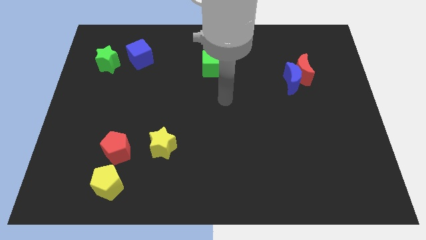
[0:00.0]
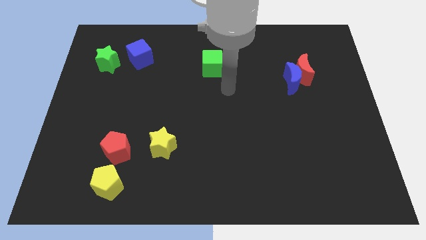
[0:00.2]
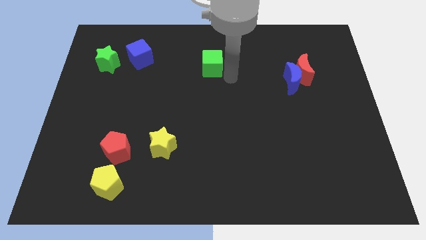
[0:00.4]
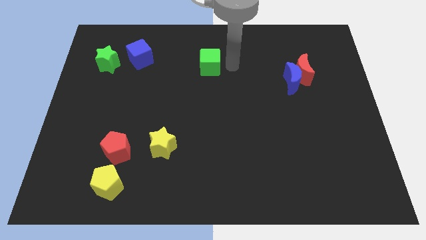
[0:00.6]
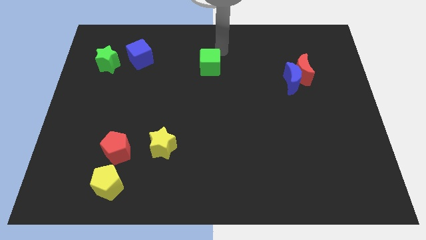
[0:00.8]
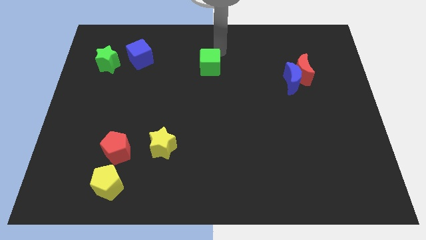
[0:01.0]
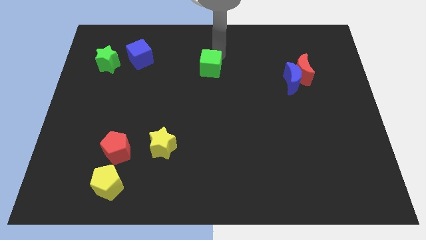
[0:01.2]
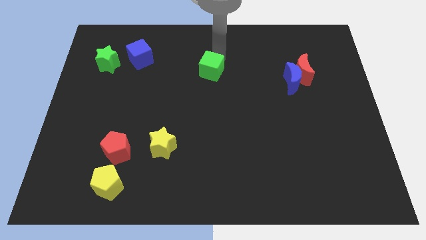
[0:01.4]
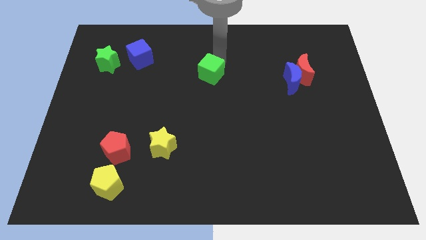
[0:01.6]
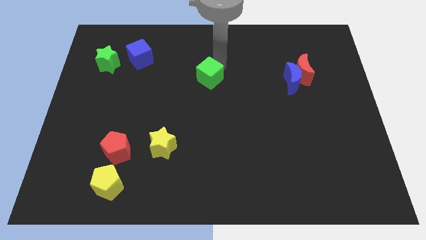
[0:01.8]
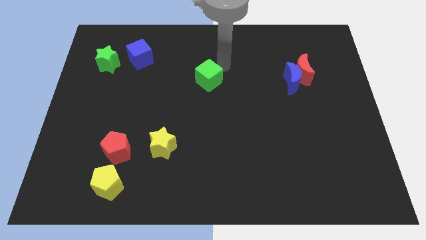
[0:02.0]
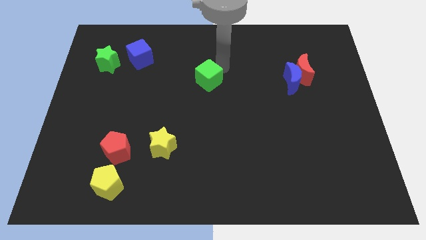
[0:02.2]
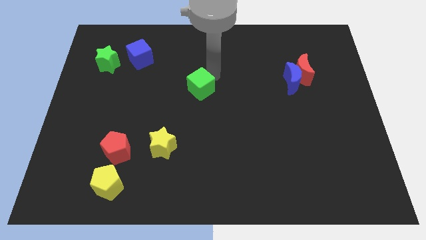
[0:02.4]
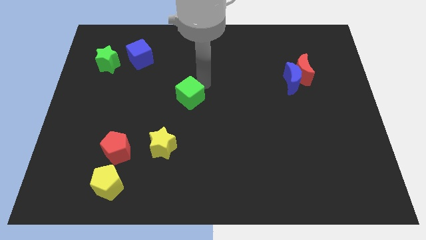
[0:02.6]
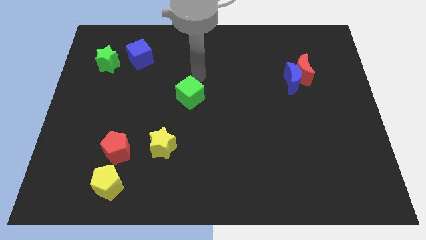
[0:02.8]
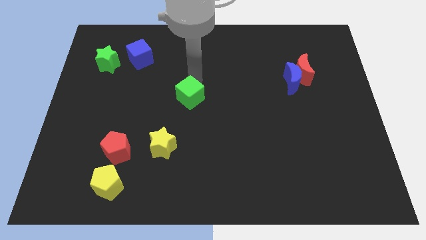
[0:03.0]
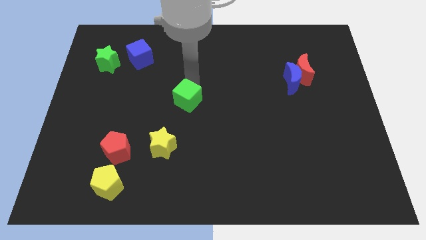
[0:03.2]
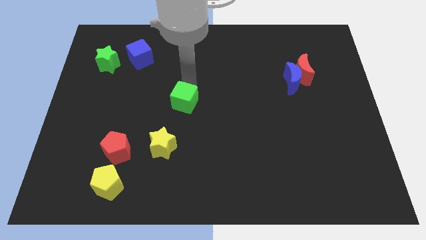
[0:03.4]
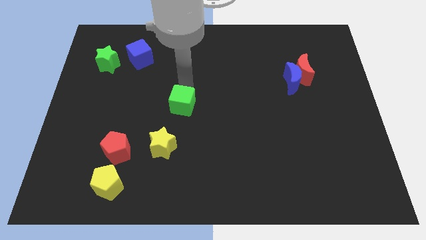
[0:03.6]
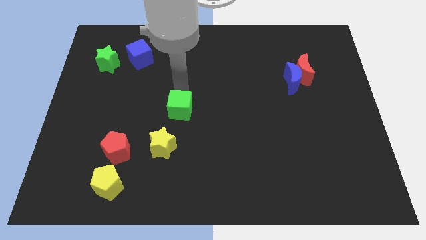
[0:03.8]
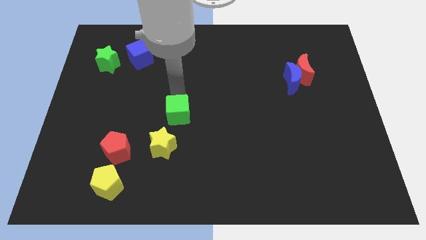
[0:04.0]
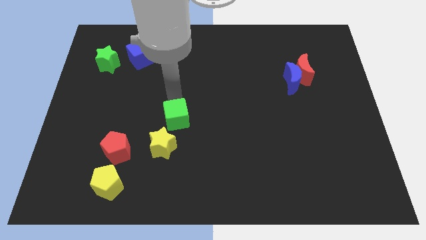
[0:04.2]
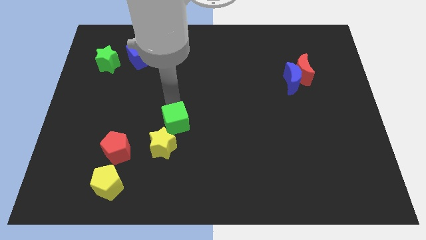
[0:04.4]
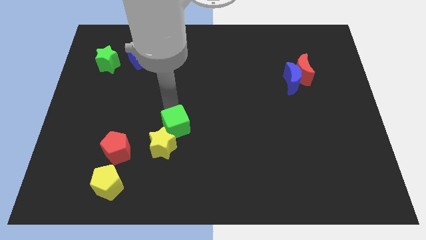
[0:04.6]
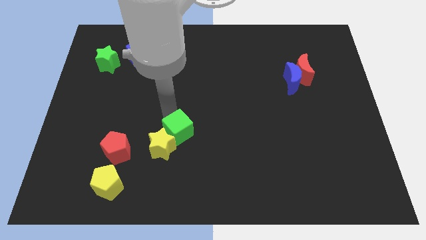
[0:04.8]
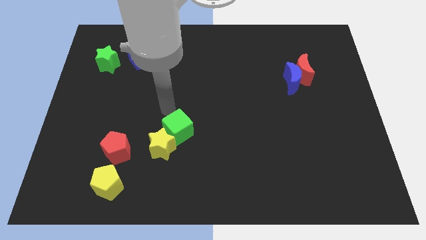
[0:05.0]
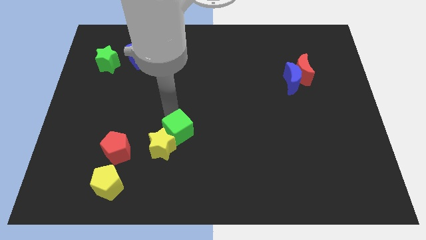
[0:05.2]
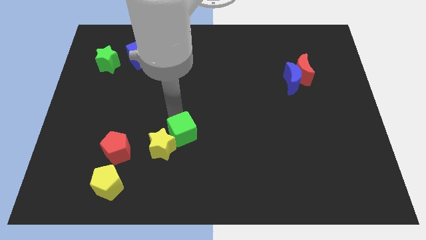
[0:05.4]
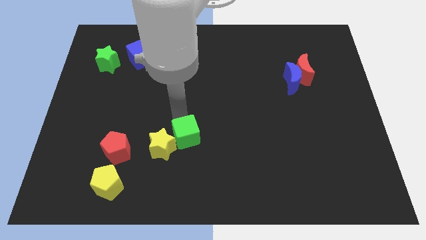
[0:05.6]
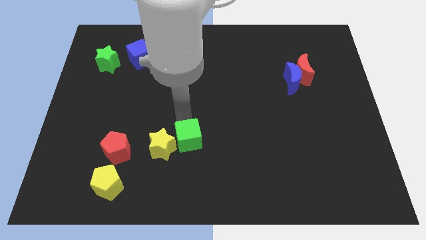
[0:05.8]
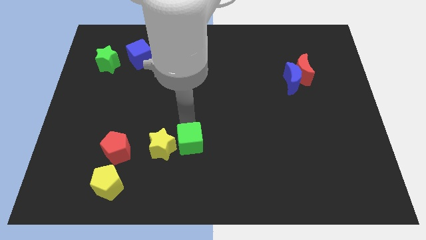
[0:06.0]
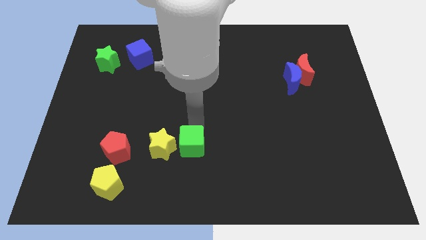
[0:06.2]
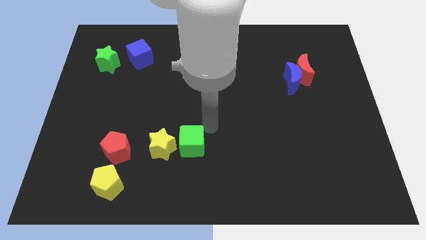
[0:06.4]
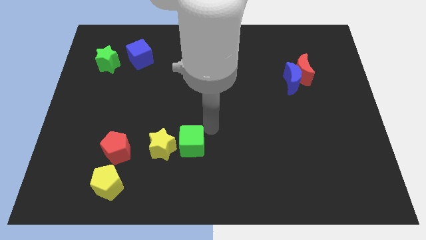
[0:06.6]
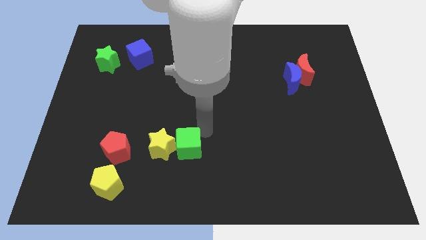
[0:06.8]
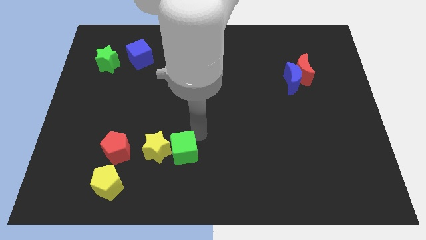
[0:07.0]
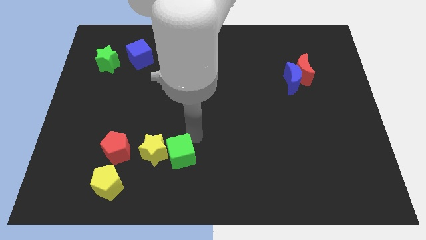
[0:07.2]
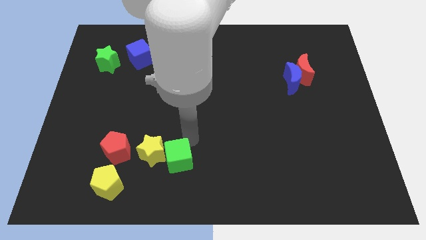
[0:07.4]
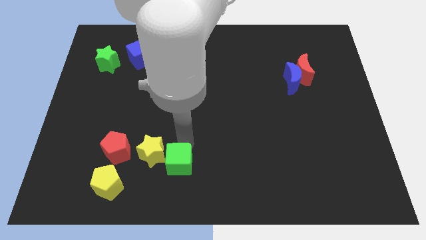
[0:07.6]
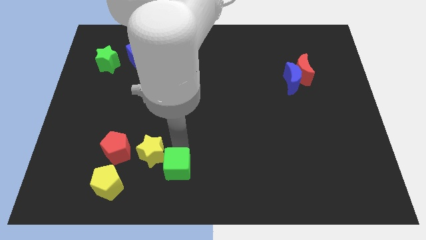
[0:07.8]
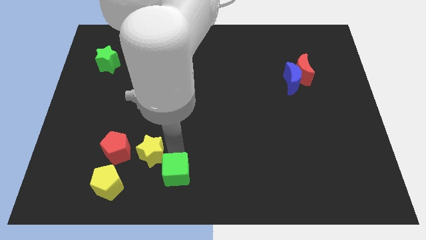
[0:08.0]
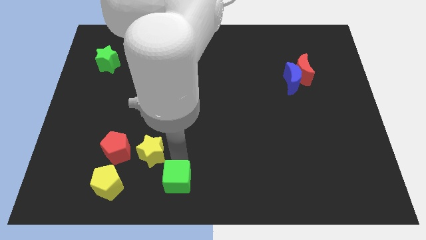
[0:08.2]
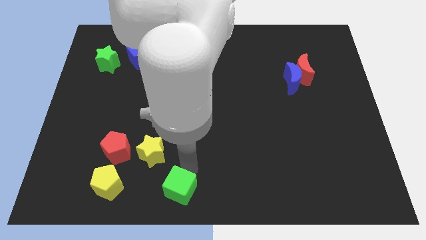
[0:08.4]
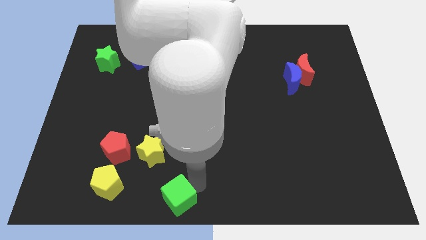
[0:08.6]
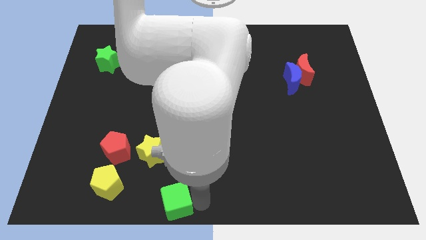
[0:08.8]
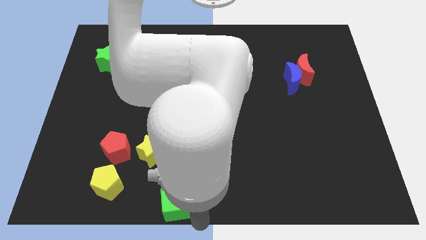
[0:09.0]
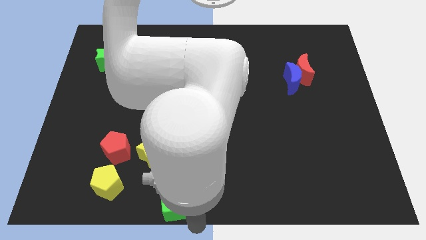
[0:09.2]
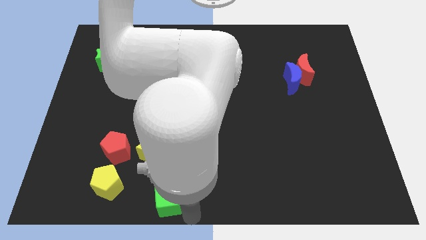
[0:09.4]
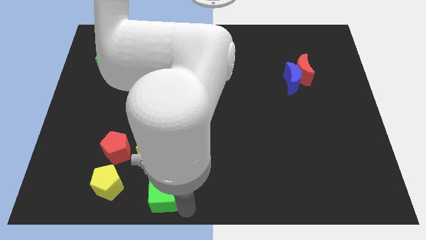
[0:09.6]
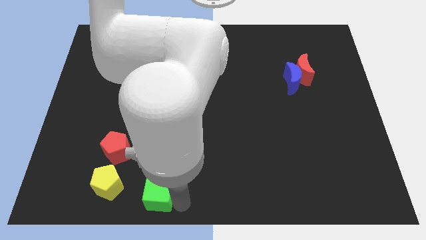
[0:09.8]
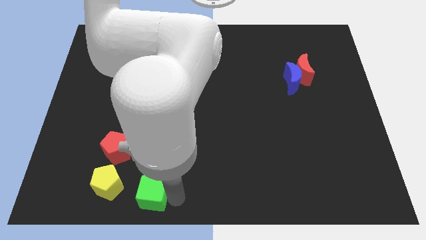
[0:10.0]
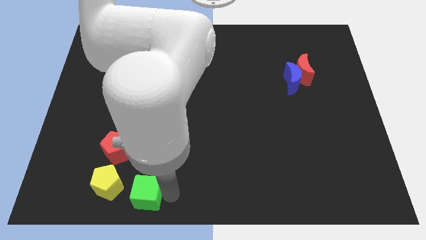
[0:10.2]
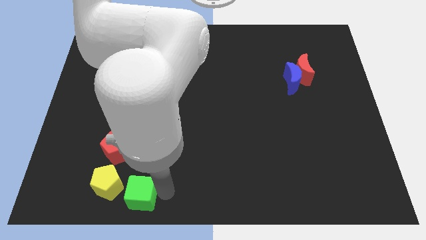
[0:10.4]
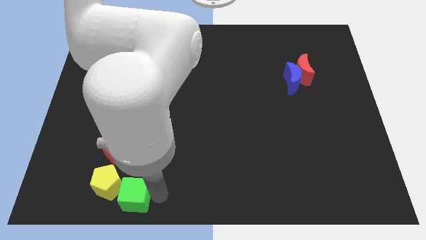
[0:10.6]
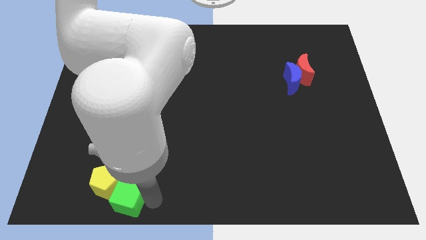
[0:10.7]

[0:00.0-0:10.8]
push the green cube close to the yellow pentagon

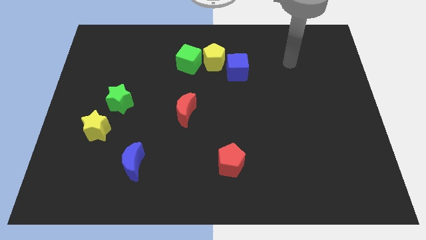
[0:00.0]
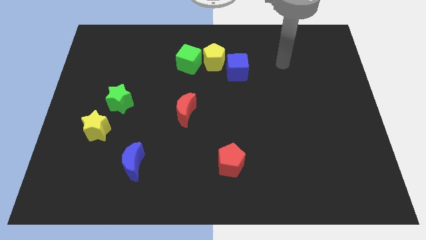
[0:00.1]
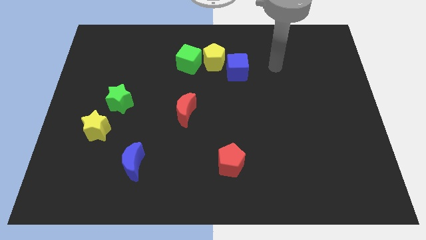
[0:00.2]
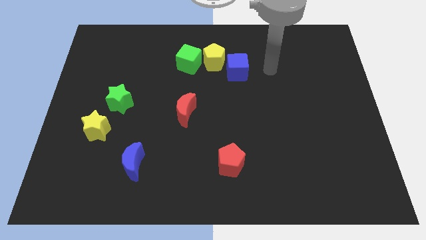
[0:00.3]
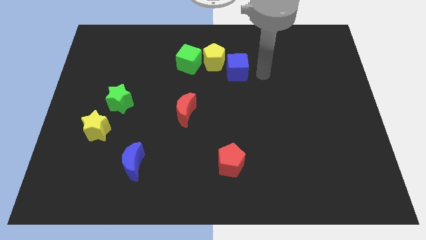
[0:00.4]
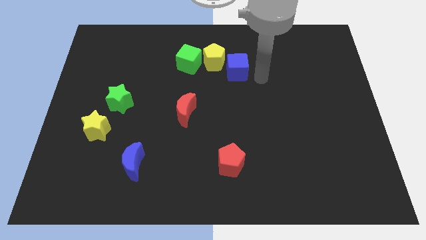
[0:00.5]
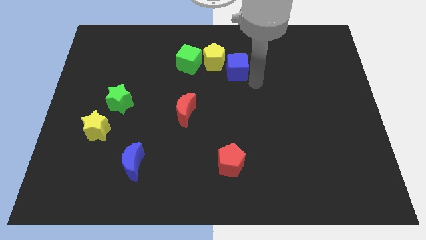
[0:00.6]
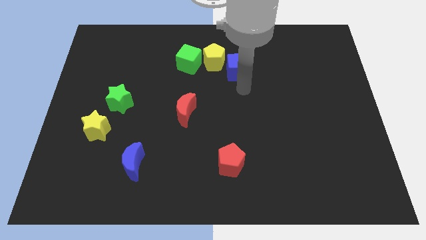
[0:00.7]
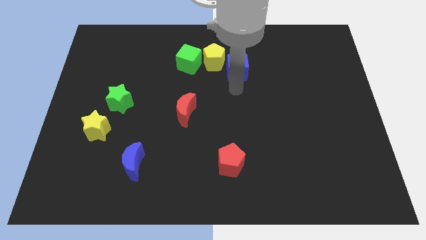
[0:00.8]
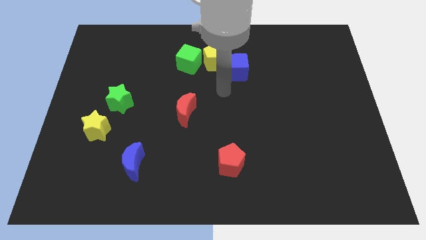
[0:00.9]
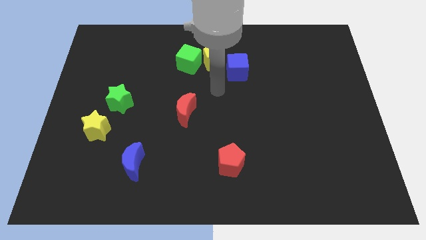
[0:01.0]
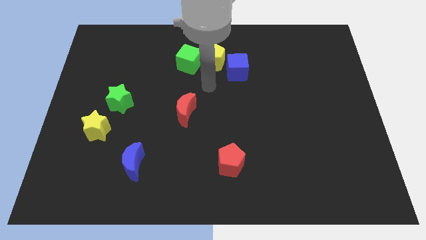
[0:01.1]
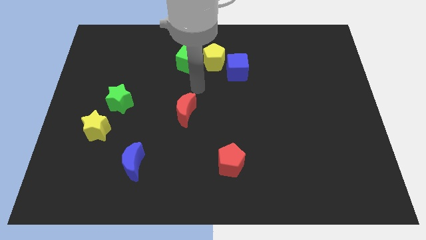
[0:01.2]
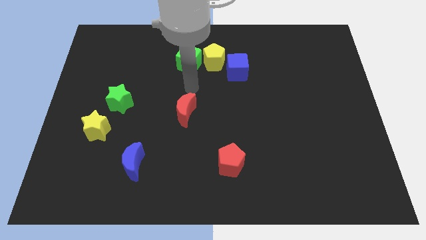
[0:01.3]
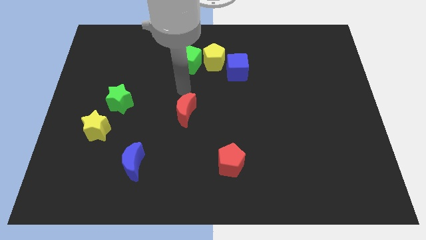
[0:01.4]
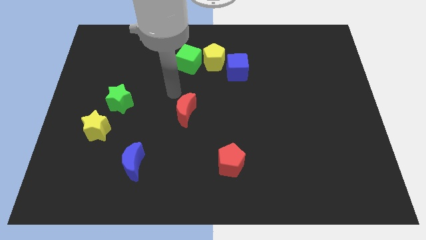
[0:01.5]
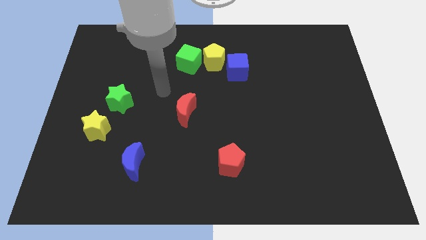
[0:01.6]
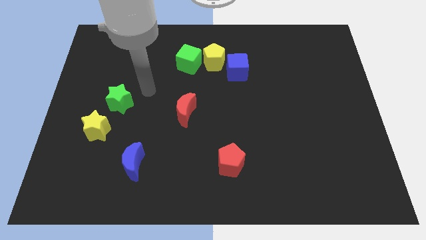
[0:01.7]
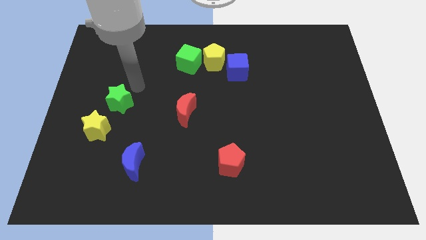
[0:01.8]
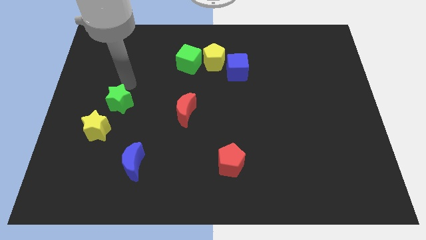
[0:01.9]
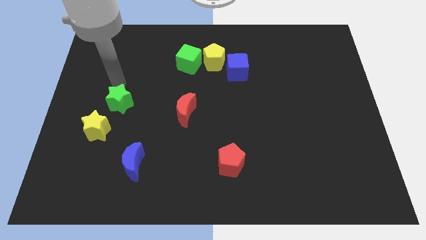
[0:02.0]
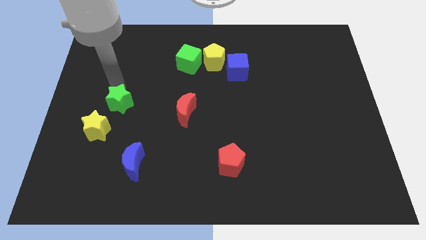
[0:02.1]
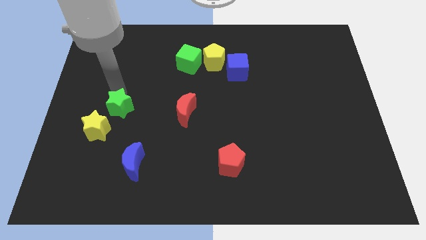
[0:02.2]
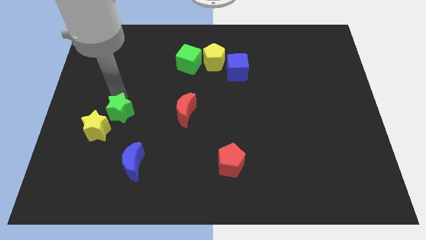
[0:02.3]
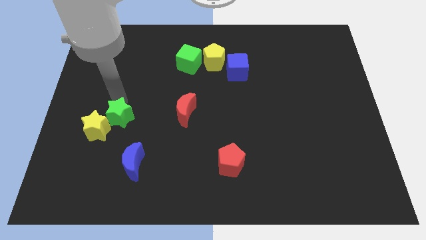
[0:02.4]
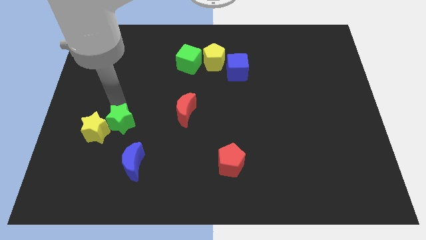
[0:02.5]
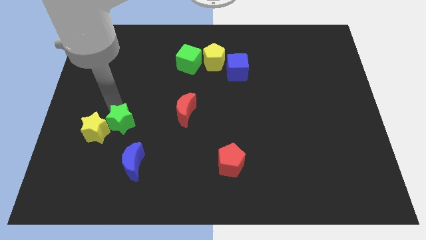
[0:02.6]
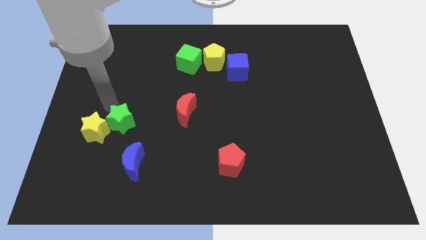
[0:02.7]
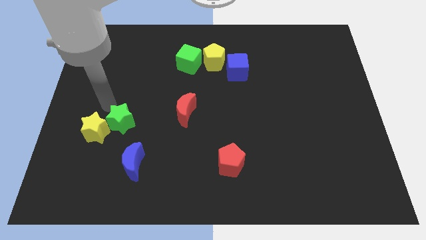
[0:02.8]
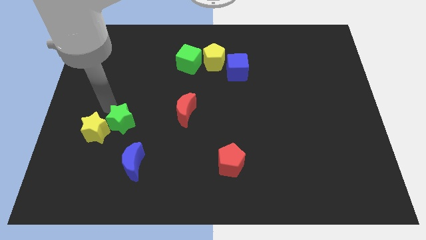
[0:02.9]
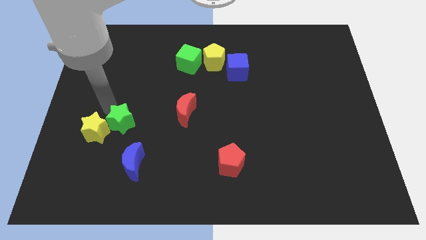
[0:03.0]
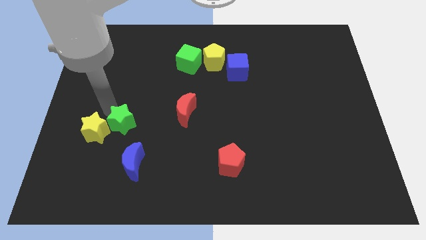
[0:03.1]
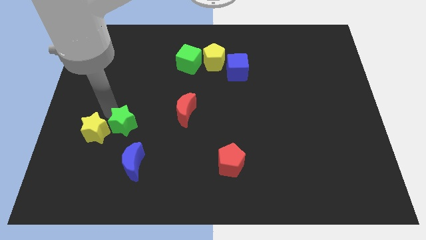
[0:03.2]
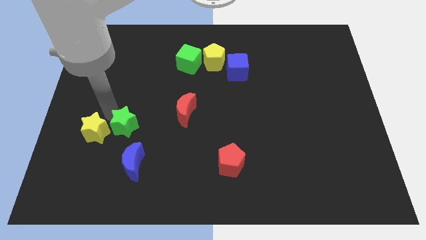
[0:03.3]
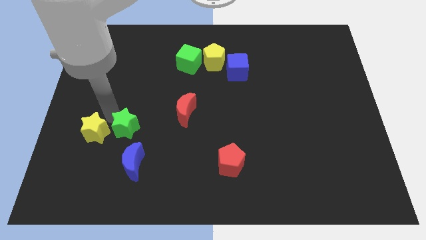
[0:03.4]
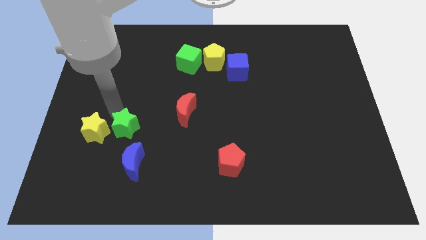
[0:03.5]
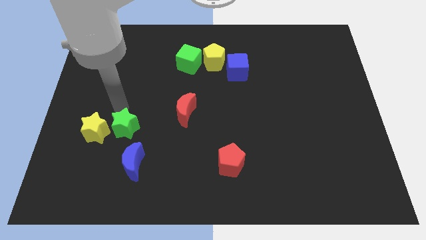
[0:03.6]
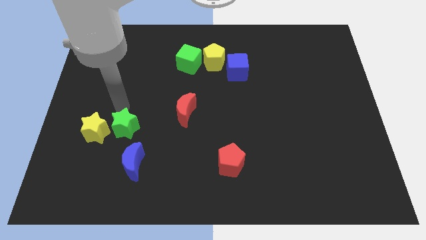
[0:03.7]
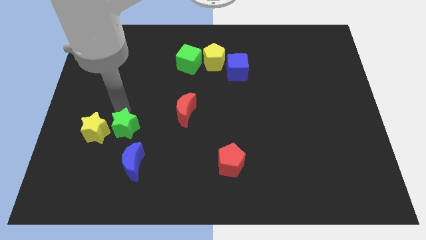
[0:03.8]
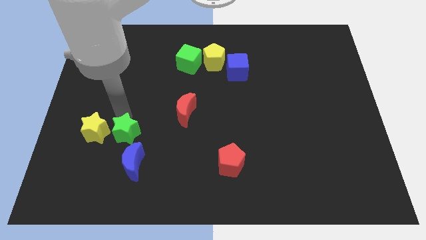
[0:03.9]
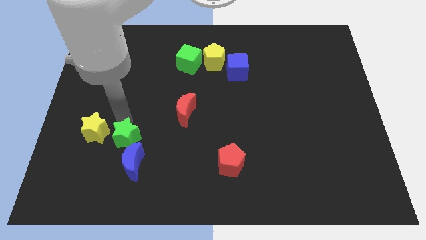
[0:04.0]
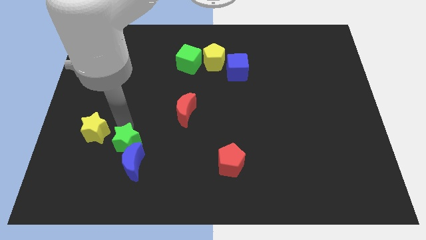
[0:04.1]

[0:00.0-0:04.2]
put the green star towards the blue moon
